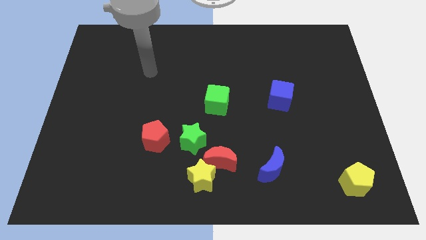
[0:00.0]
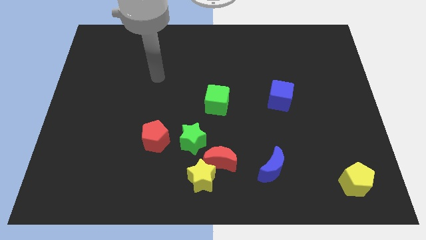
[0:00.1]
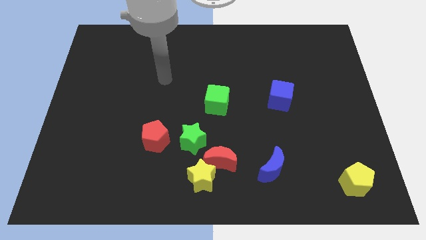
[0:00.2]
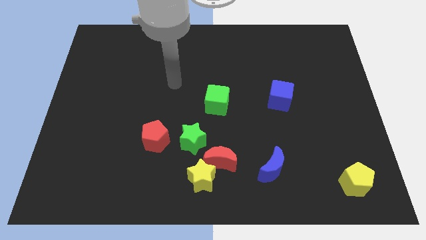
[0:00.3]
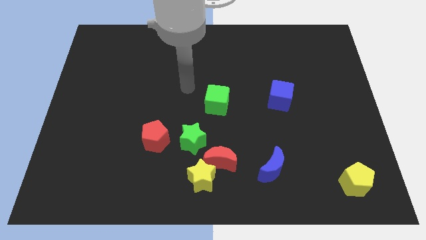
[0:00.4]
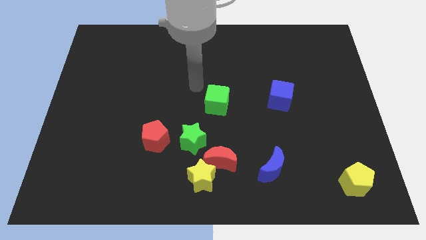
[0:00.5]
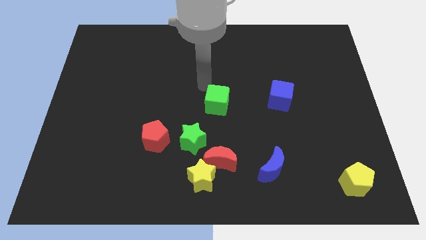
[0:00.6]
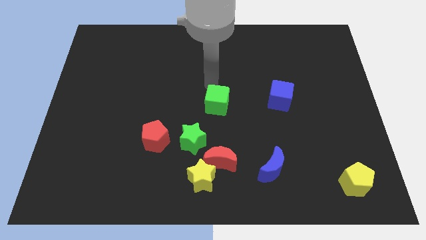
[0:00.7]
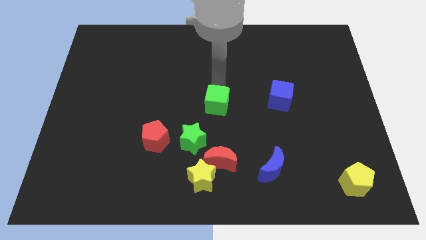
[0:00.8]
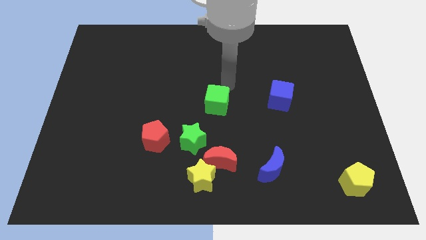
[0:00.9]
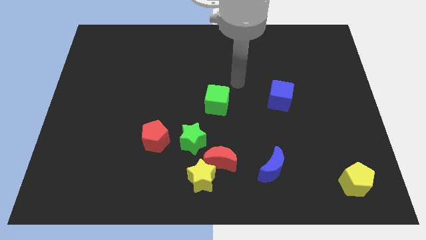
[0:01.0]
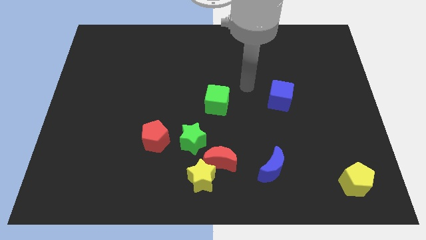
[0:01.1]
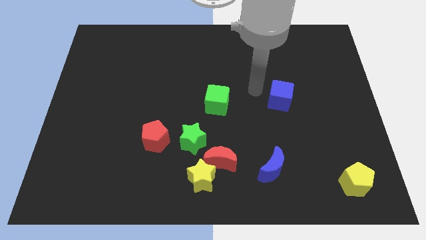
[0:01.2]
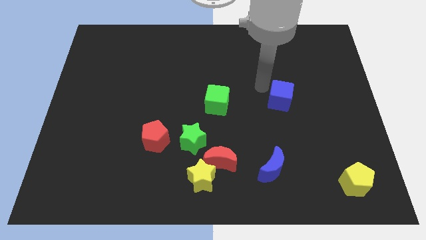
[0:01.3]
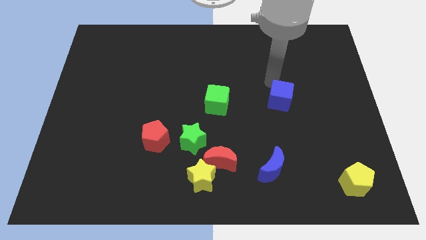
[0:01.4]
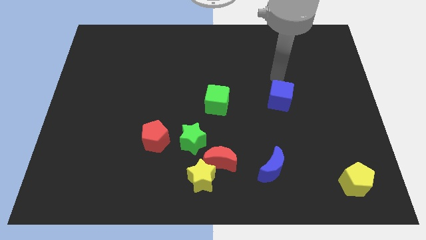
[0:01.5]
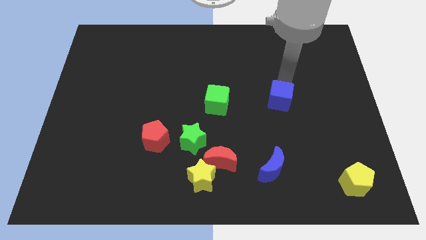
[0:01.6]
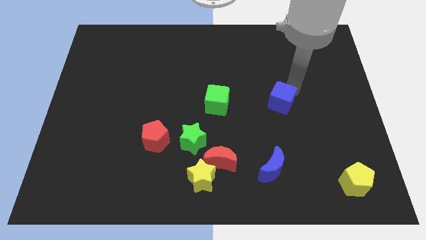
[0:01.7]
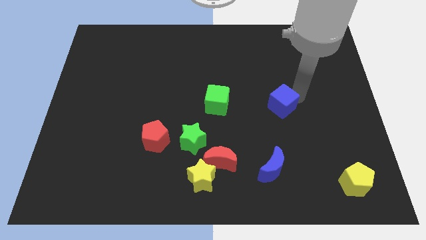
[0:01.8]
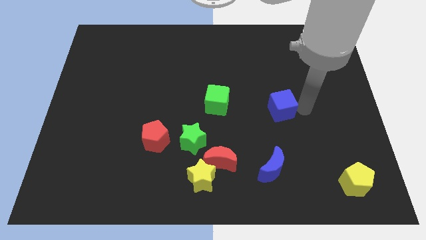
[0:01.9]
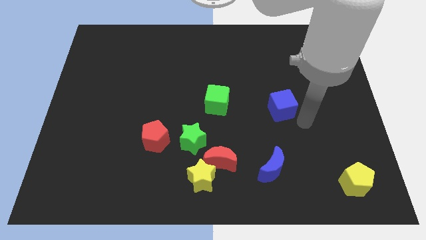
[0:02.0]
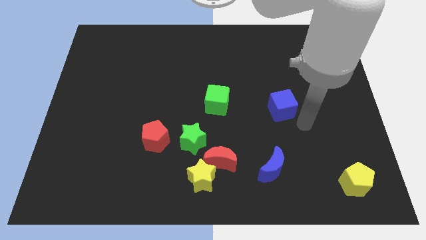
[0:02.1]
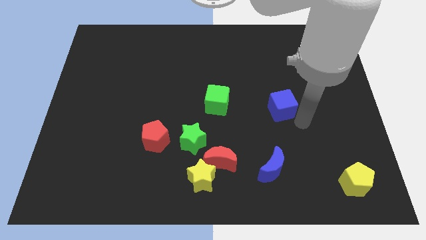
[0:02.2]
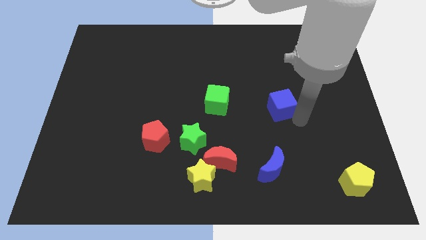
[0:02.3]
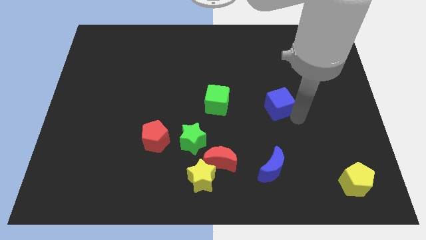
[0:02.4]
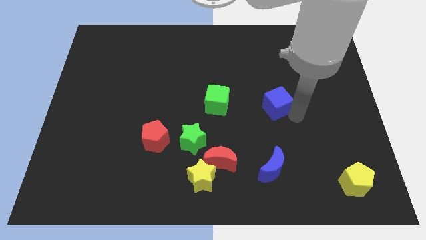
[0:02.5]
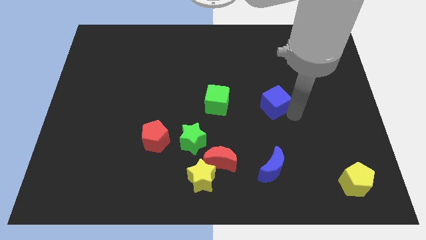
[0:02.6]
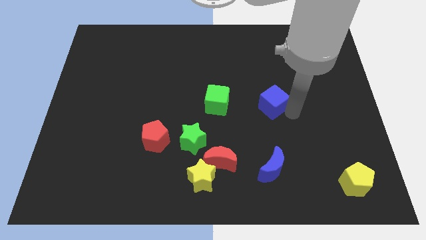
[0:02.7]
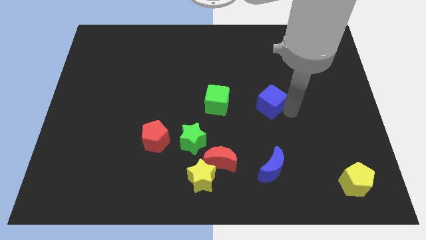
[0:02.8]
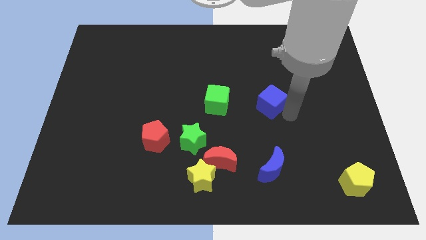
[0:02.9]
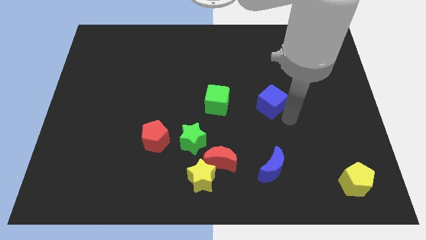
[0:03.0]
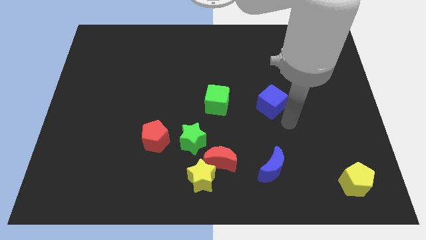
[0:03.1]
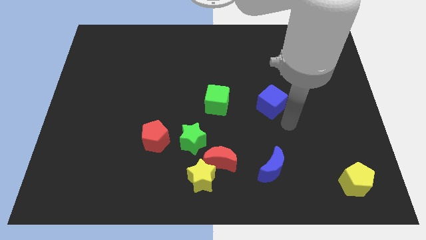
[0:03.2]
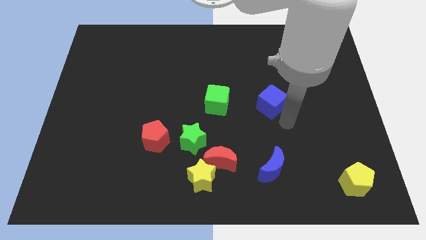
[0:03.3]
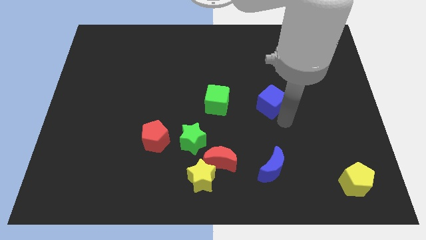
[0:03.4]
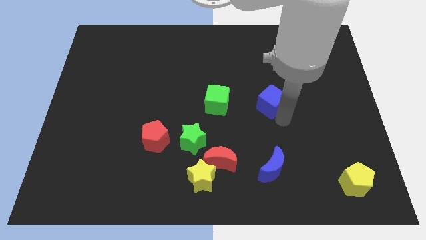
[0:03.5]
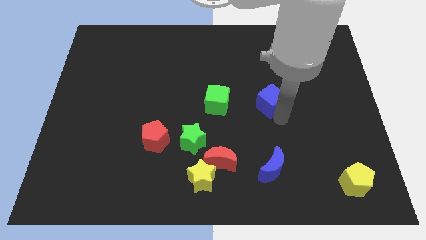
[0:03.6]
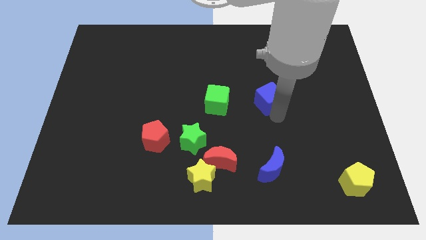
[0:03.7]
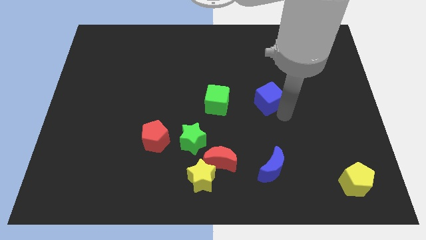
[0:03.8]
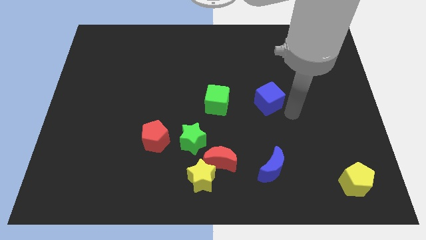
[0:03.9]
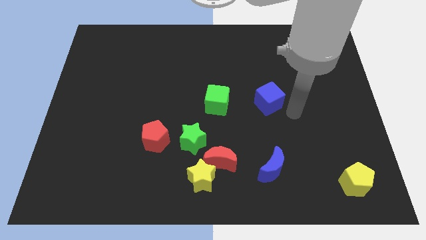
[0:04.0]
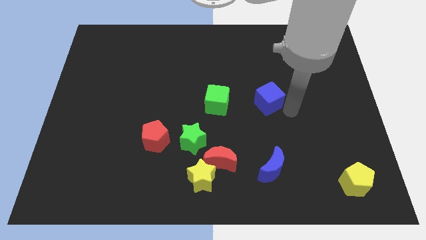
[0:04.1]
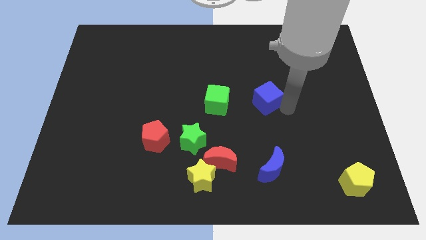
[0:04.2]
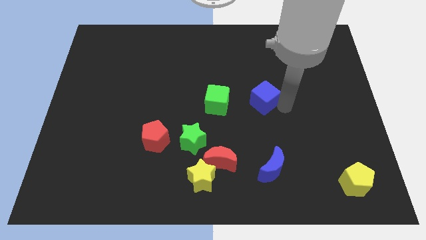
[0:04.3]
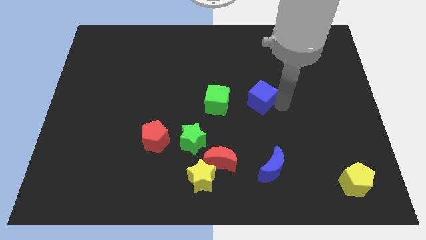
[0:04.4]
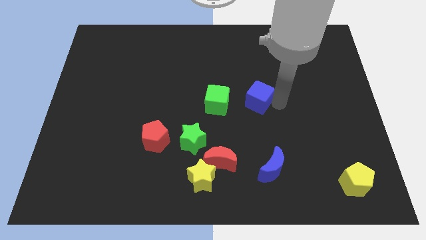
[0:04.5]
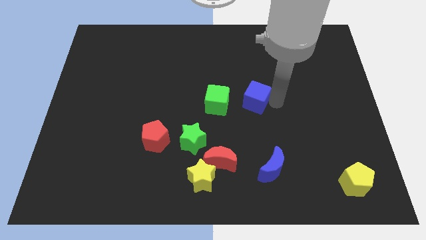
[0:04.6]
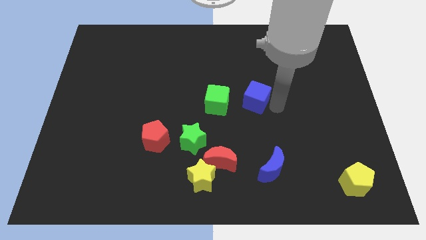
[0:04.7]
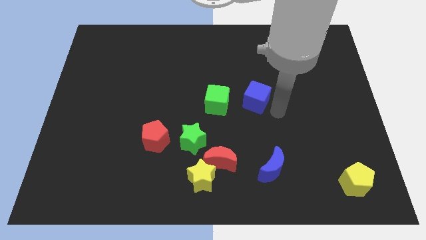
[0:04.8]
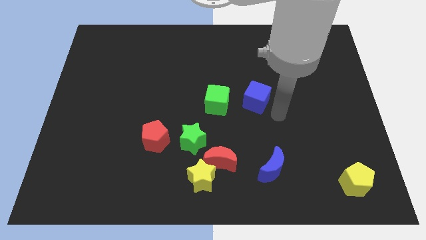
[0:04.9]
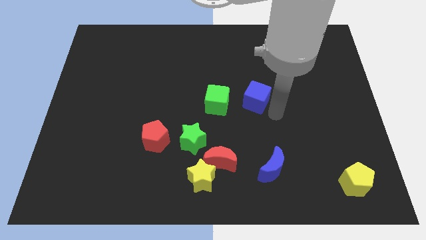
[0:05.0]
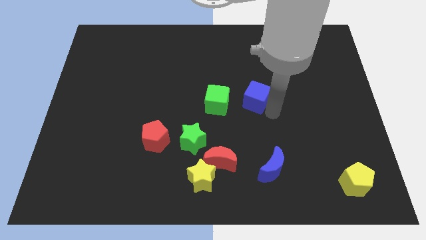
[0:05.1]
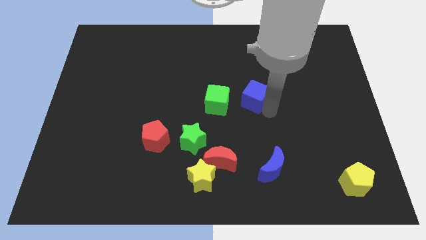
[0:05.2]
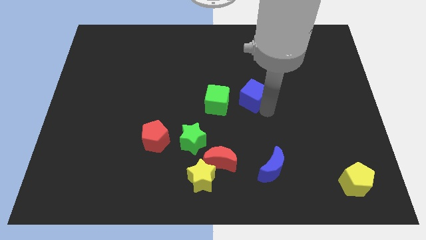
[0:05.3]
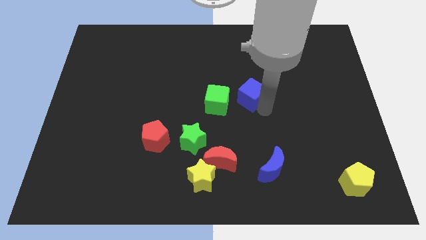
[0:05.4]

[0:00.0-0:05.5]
push the blue cube left a bit

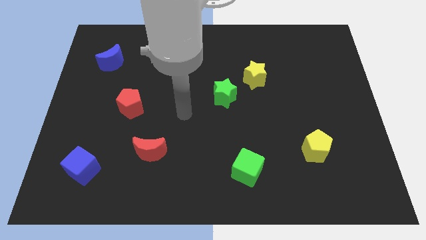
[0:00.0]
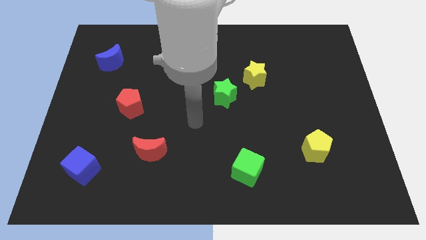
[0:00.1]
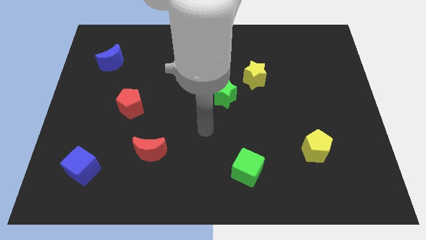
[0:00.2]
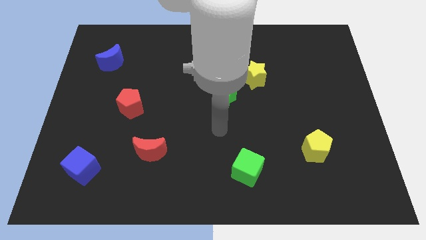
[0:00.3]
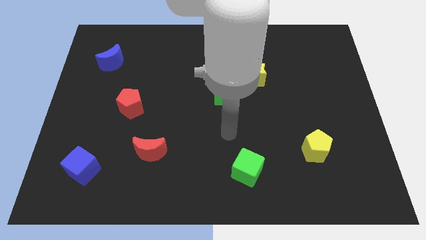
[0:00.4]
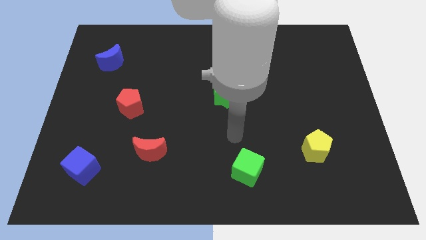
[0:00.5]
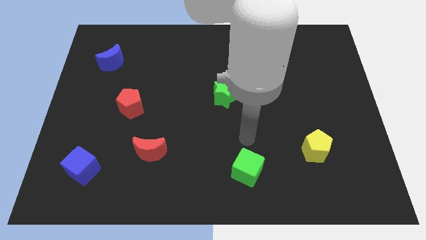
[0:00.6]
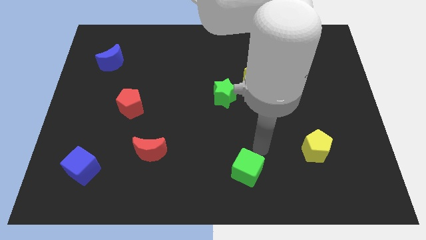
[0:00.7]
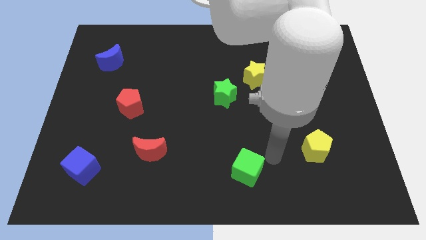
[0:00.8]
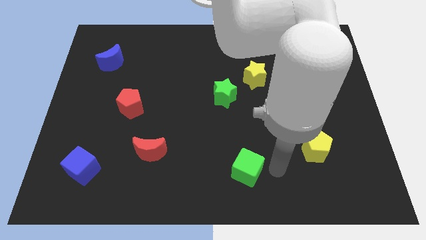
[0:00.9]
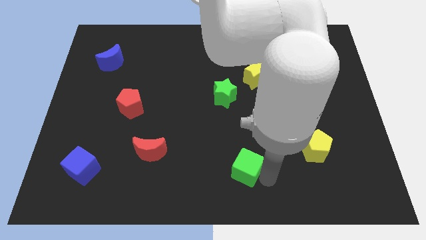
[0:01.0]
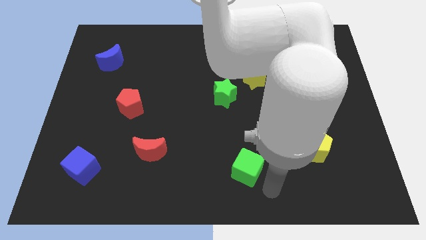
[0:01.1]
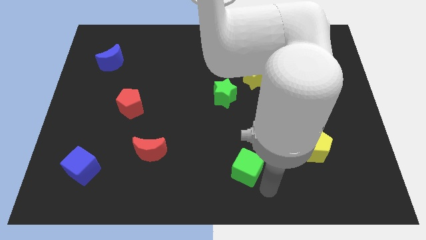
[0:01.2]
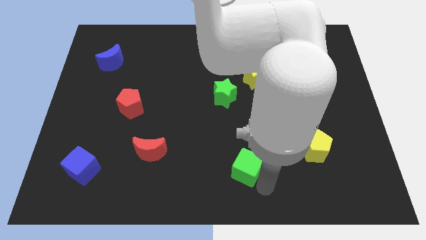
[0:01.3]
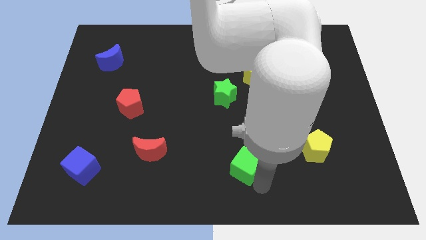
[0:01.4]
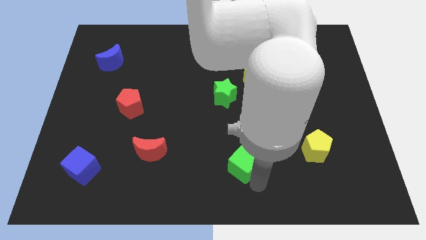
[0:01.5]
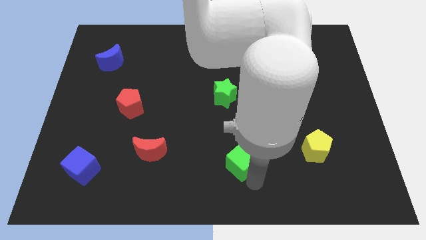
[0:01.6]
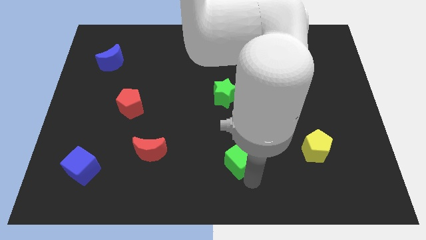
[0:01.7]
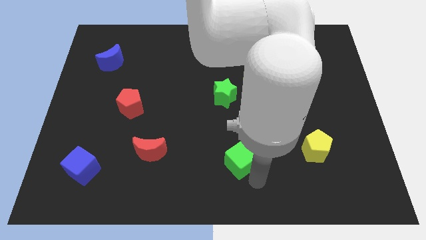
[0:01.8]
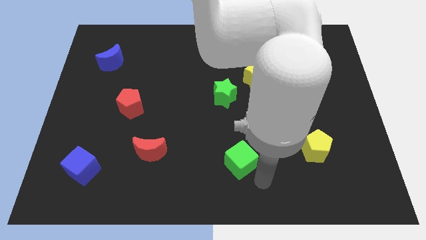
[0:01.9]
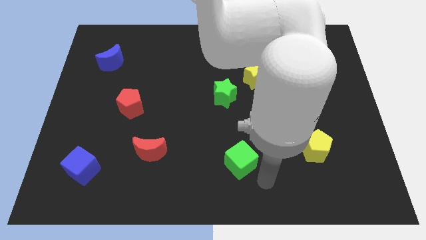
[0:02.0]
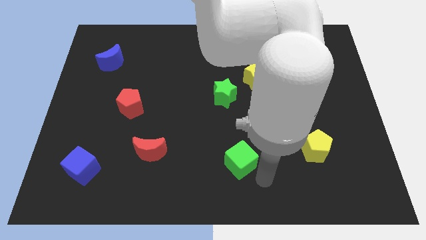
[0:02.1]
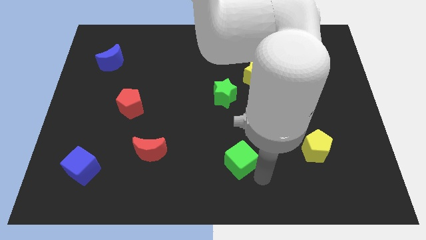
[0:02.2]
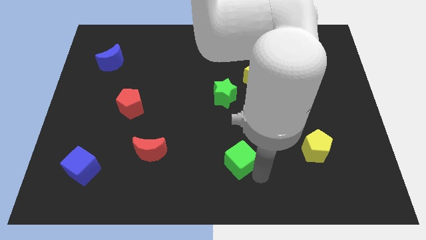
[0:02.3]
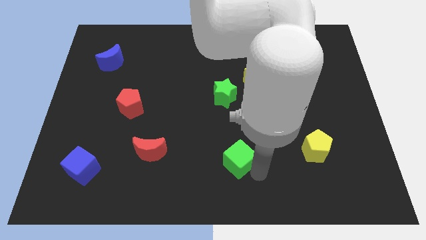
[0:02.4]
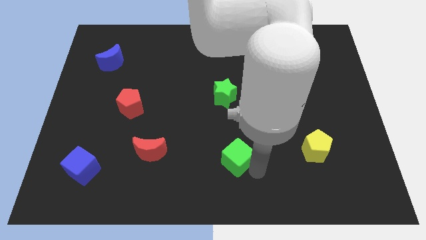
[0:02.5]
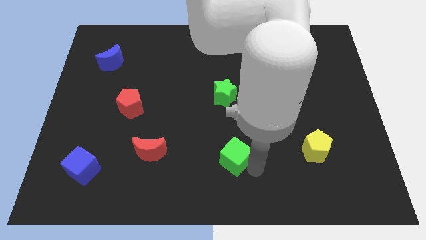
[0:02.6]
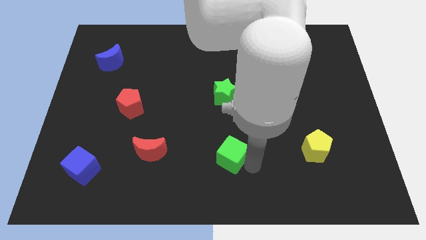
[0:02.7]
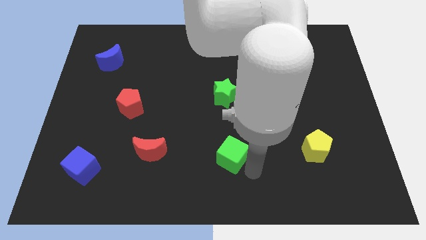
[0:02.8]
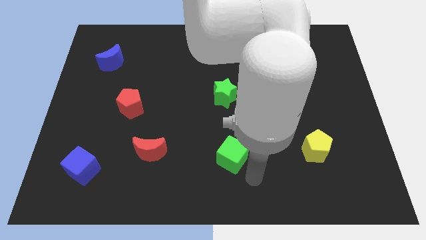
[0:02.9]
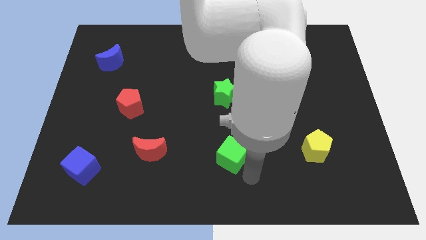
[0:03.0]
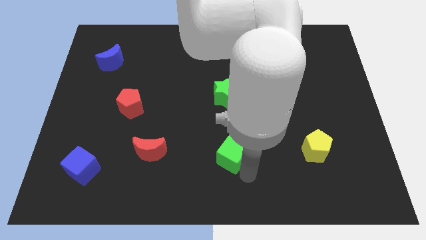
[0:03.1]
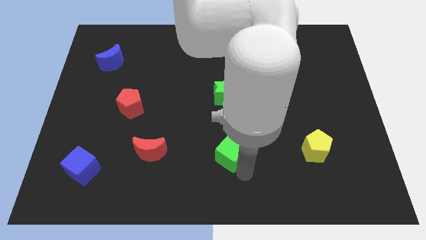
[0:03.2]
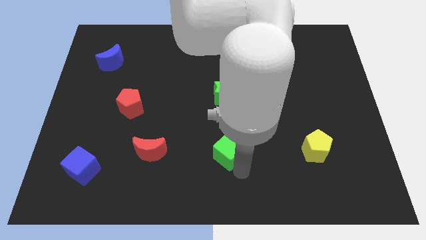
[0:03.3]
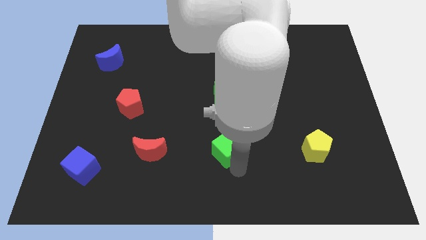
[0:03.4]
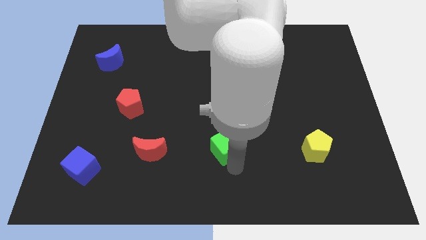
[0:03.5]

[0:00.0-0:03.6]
move the green cube upwards and left a bit
